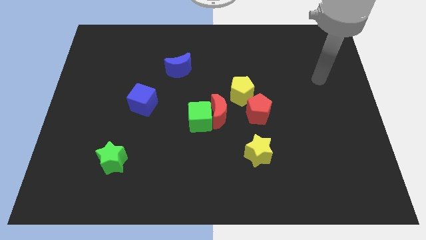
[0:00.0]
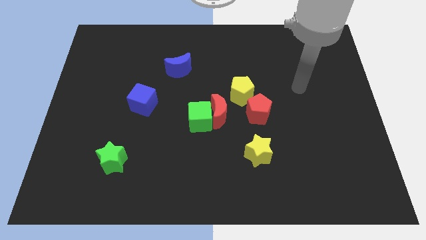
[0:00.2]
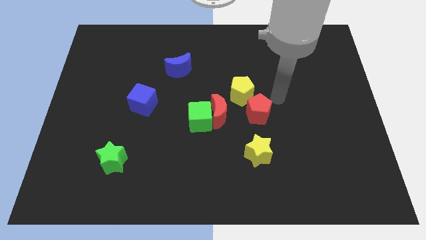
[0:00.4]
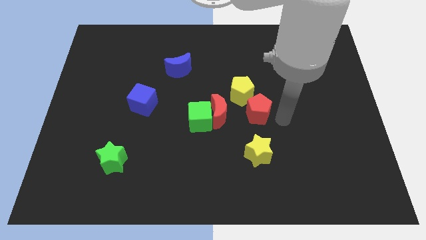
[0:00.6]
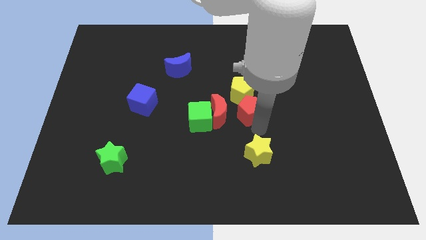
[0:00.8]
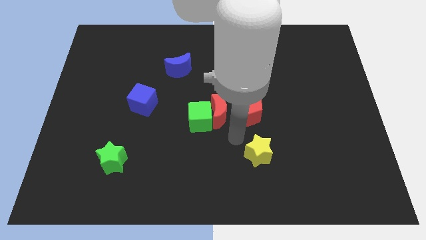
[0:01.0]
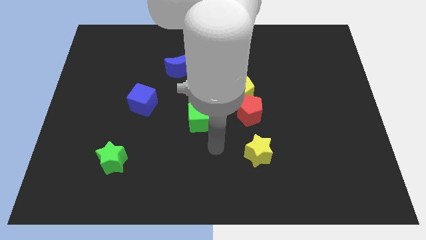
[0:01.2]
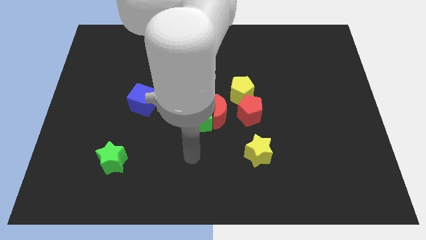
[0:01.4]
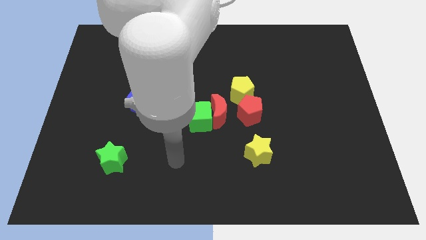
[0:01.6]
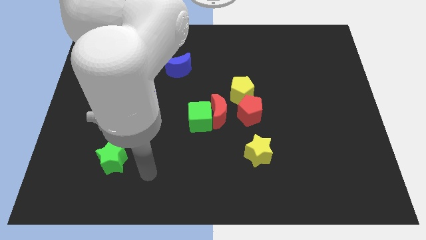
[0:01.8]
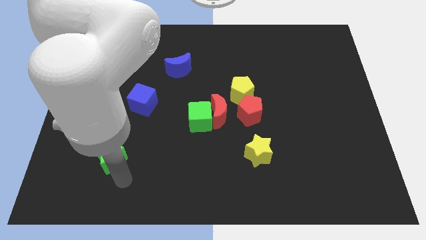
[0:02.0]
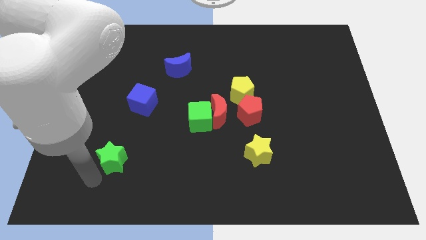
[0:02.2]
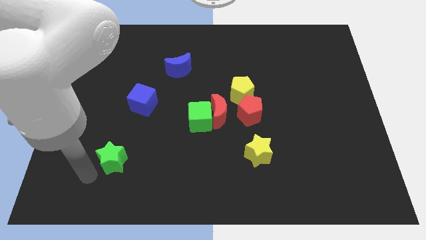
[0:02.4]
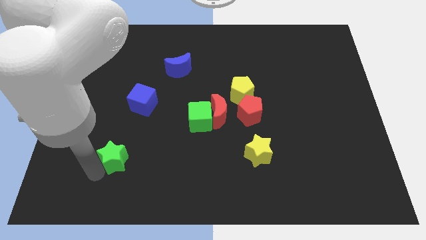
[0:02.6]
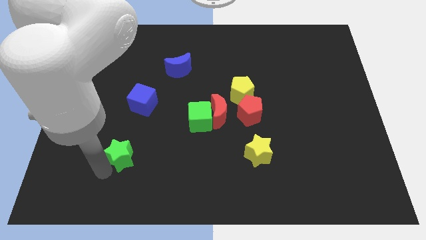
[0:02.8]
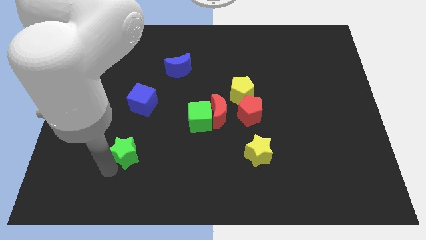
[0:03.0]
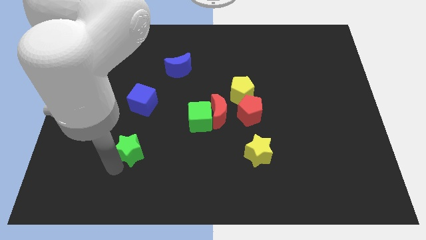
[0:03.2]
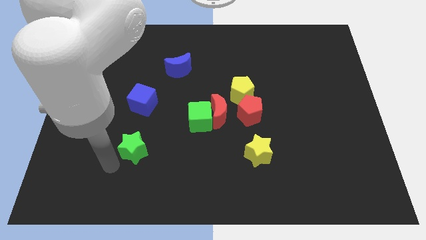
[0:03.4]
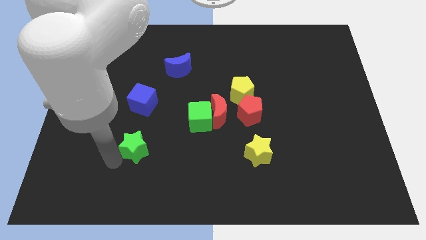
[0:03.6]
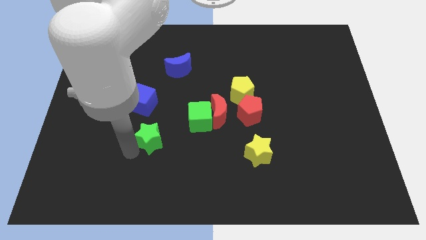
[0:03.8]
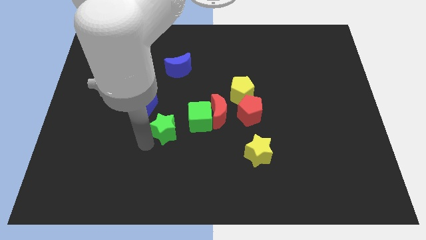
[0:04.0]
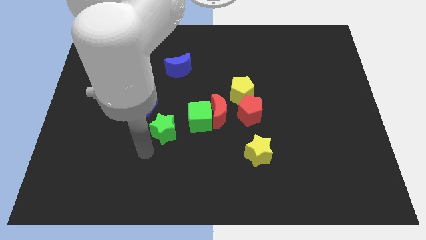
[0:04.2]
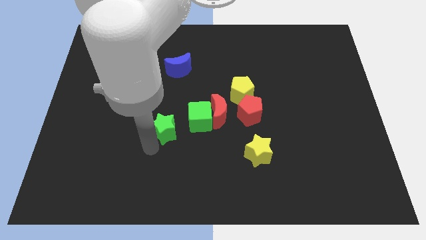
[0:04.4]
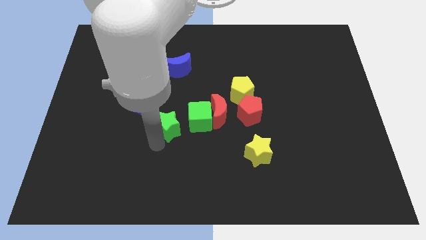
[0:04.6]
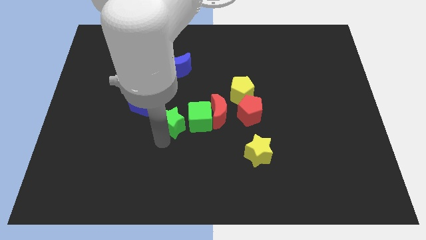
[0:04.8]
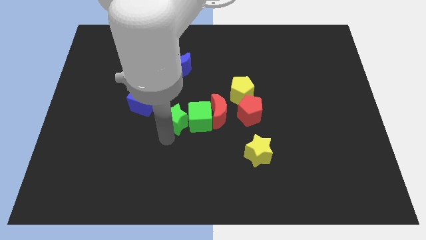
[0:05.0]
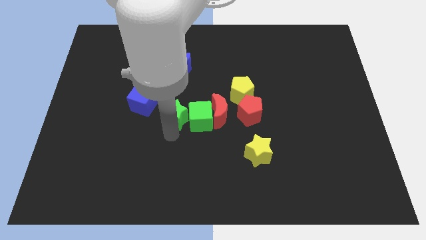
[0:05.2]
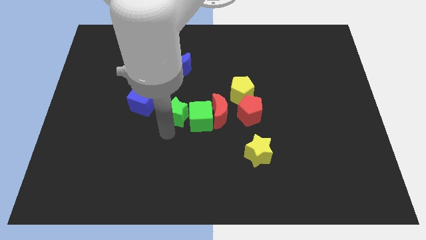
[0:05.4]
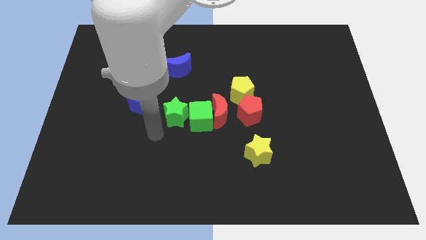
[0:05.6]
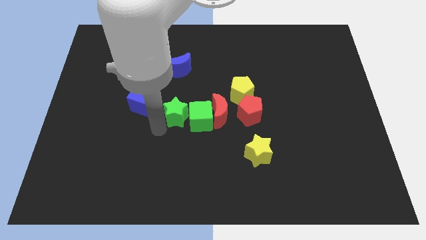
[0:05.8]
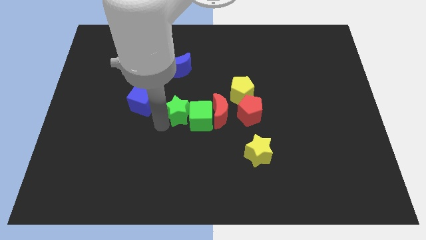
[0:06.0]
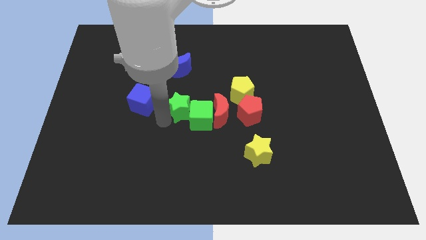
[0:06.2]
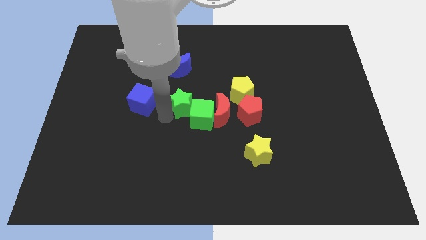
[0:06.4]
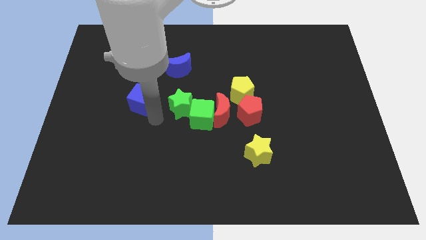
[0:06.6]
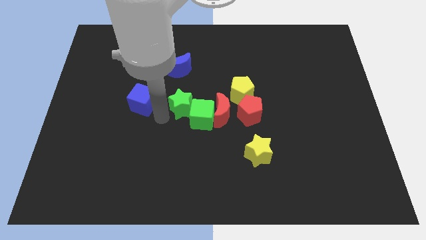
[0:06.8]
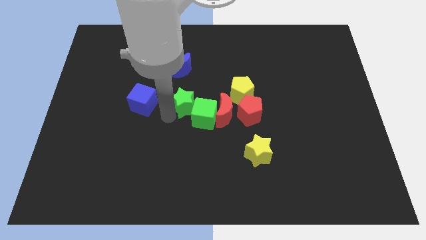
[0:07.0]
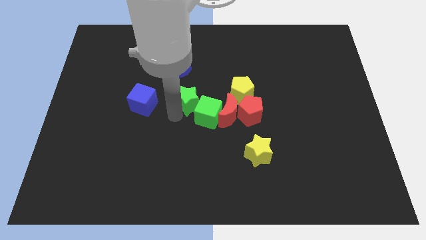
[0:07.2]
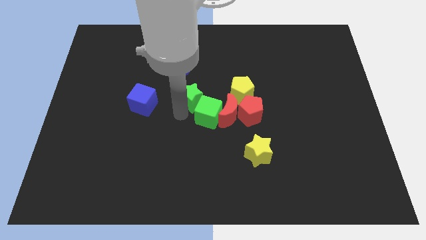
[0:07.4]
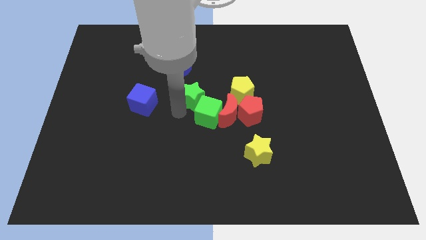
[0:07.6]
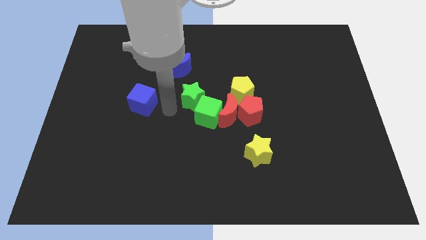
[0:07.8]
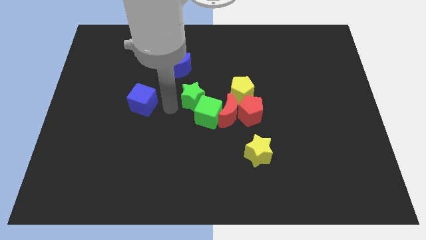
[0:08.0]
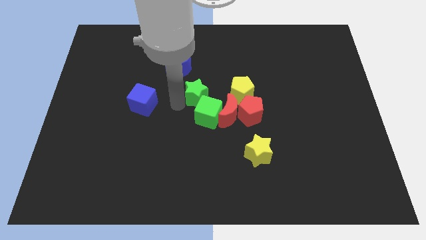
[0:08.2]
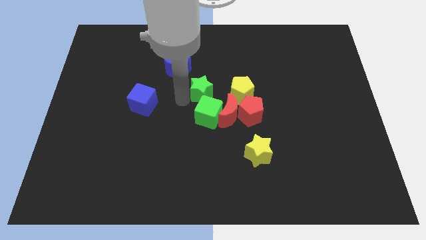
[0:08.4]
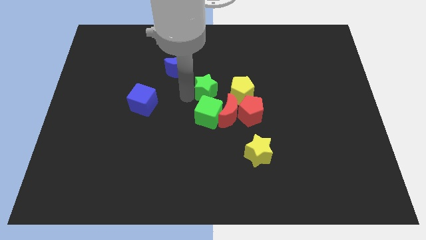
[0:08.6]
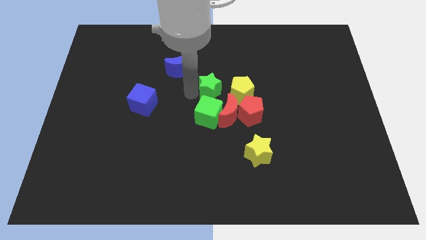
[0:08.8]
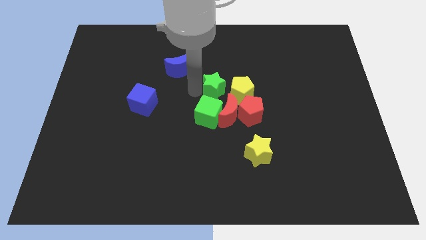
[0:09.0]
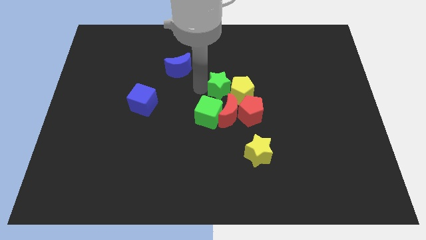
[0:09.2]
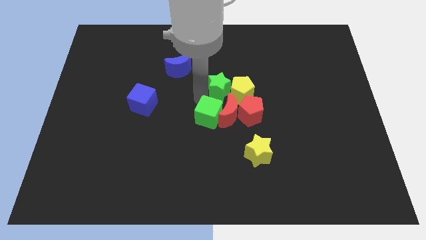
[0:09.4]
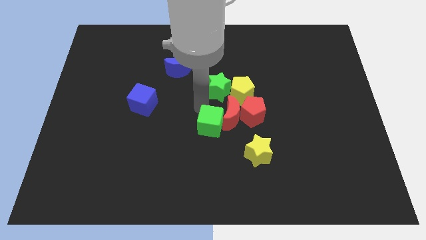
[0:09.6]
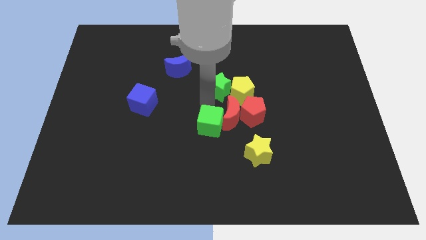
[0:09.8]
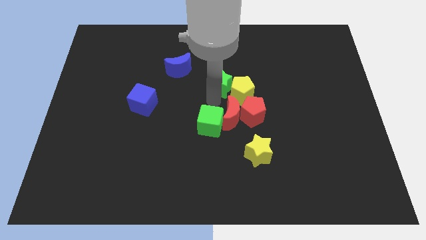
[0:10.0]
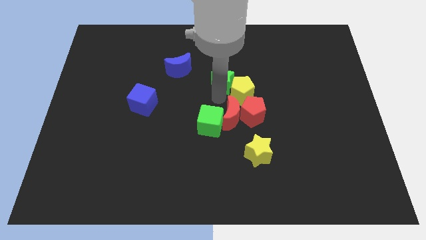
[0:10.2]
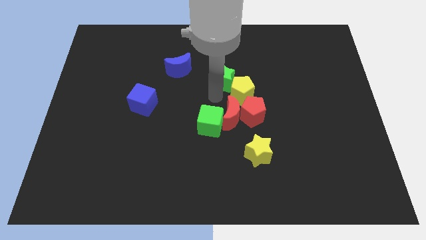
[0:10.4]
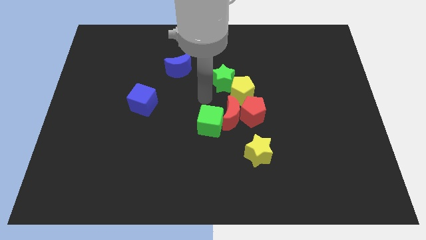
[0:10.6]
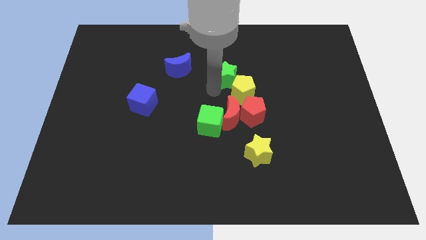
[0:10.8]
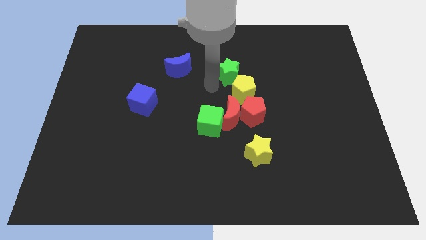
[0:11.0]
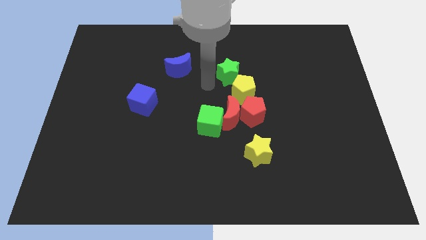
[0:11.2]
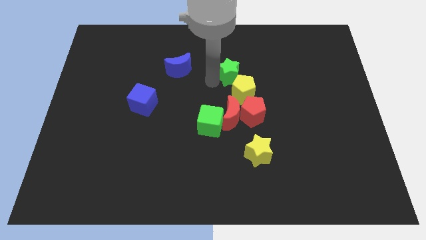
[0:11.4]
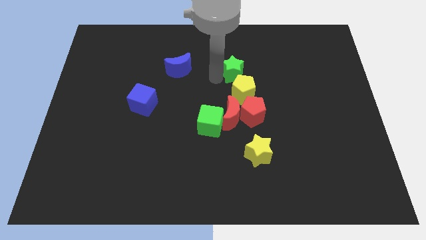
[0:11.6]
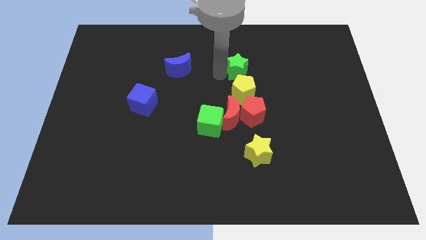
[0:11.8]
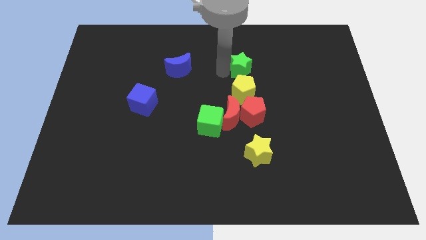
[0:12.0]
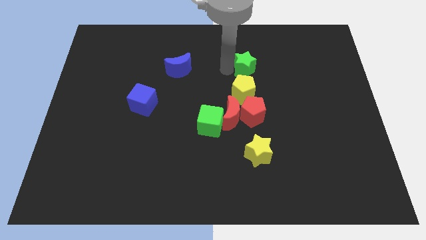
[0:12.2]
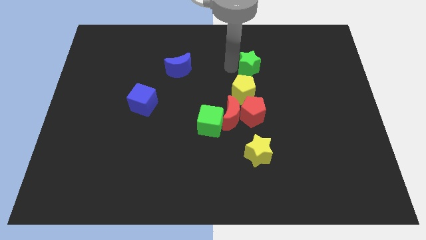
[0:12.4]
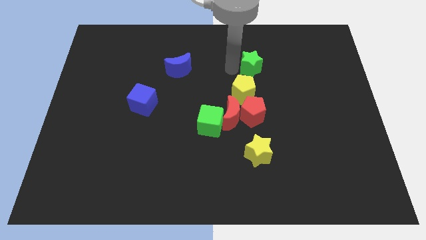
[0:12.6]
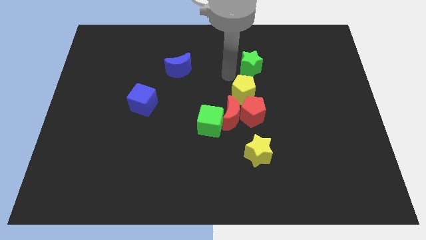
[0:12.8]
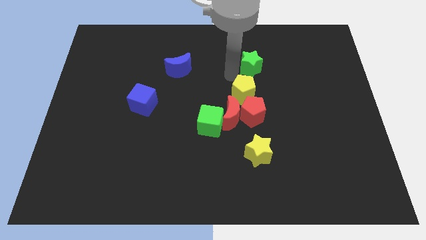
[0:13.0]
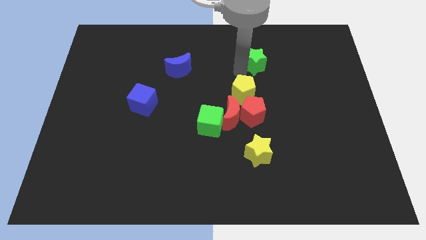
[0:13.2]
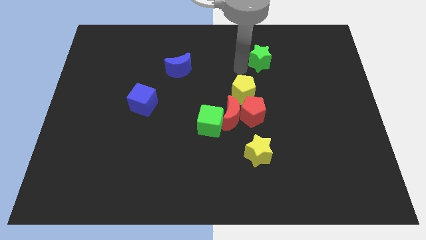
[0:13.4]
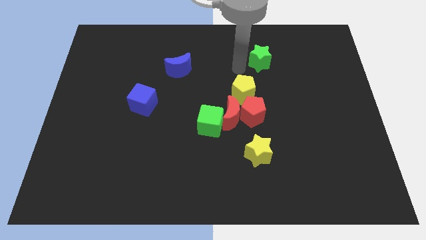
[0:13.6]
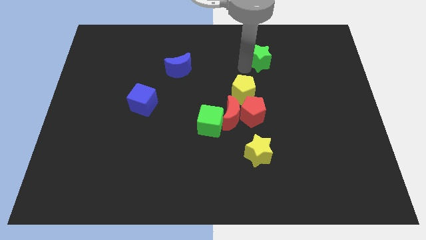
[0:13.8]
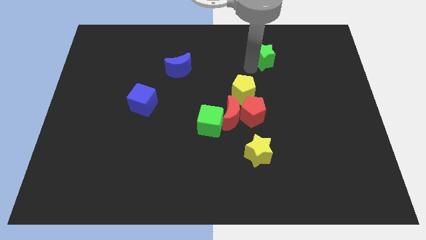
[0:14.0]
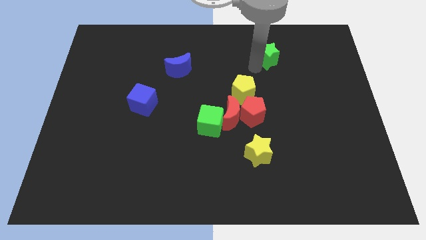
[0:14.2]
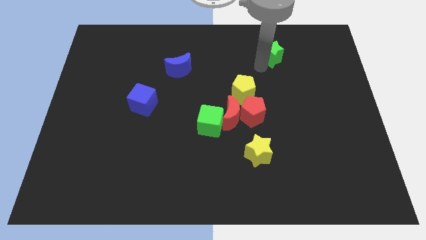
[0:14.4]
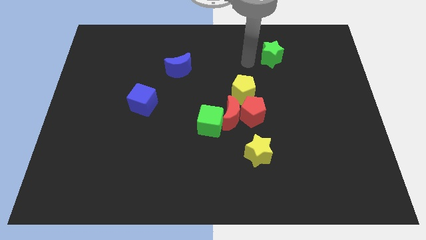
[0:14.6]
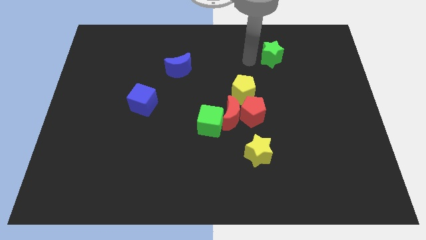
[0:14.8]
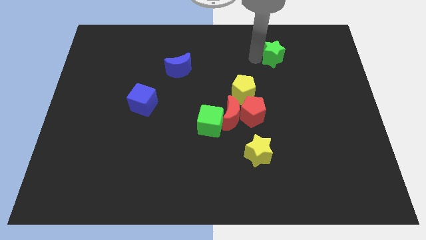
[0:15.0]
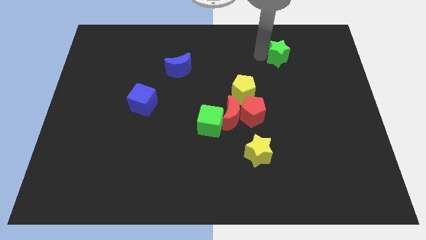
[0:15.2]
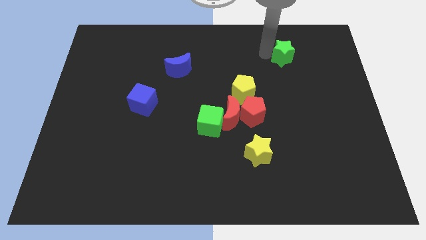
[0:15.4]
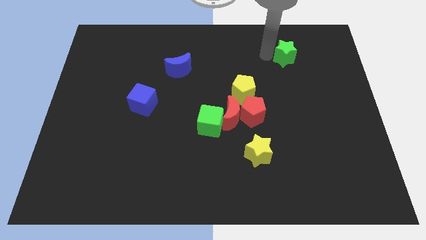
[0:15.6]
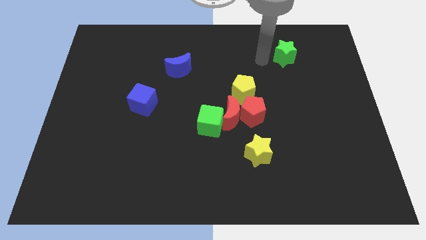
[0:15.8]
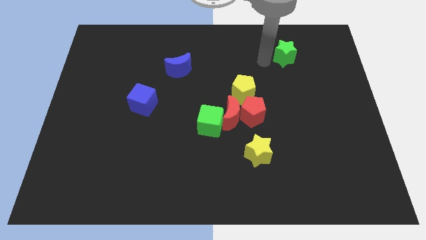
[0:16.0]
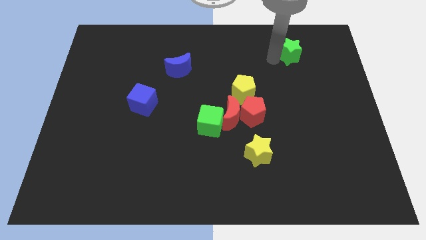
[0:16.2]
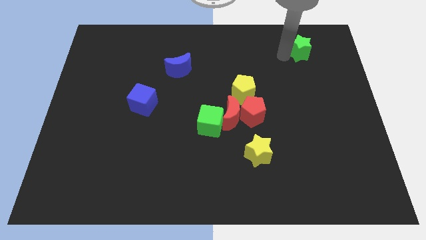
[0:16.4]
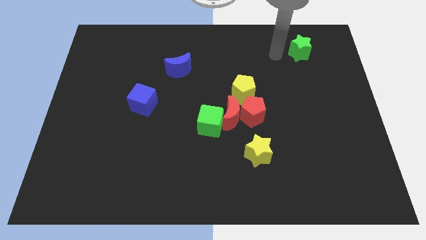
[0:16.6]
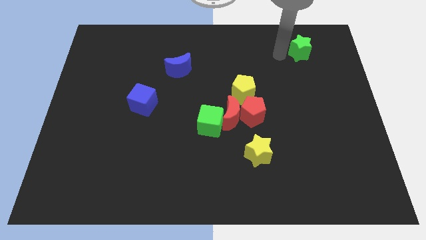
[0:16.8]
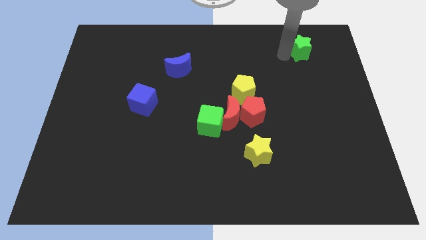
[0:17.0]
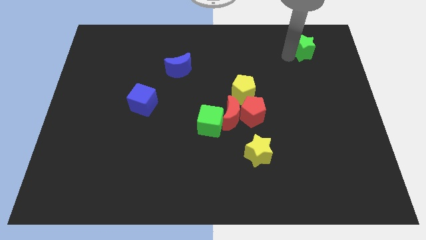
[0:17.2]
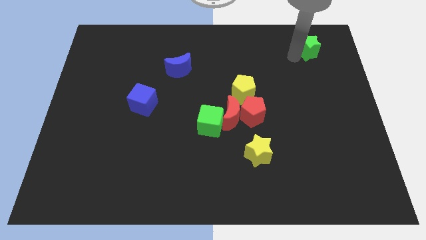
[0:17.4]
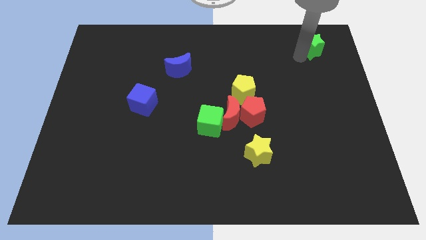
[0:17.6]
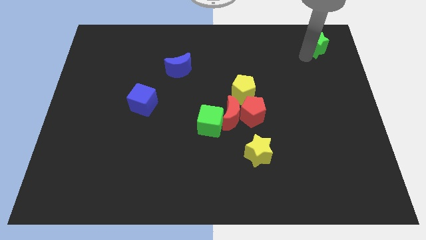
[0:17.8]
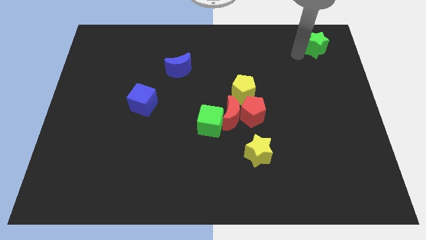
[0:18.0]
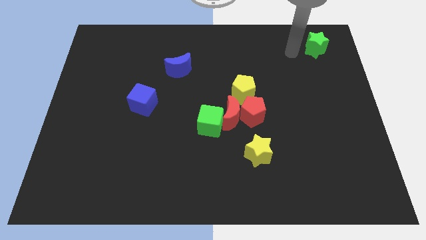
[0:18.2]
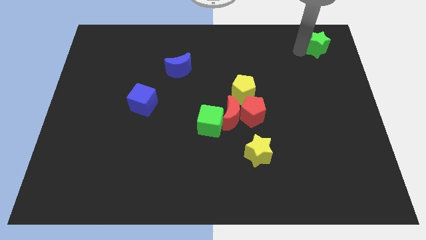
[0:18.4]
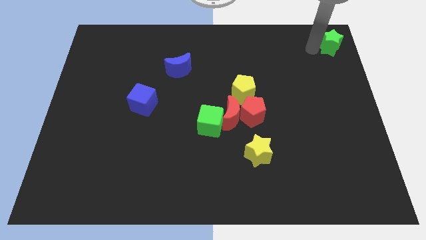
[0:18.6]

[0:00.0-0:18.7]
move the green star to the upper right corner
